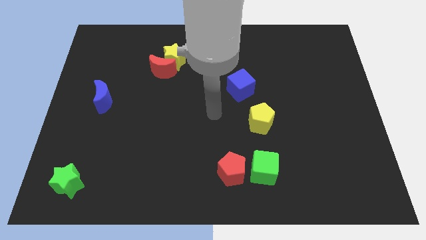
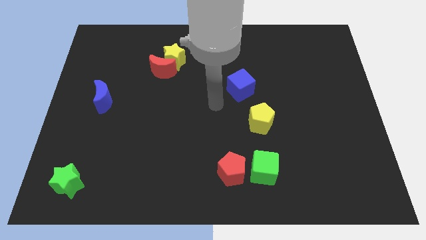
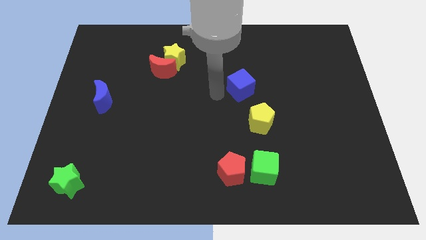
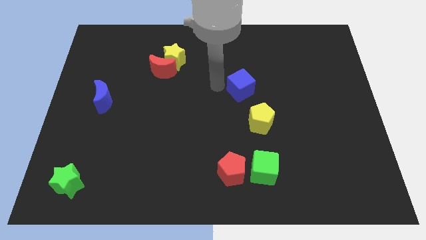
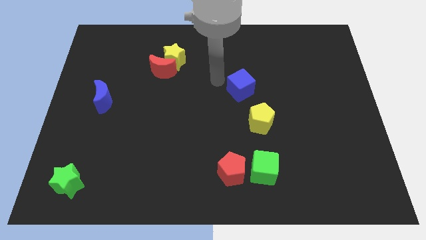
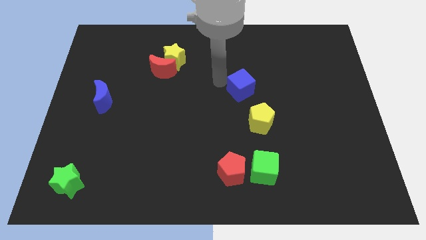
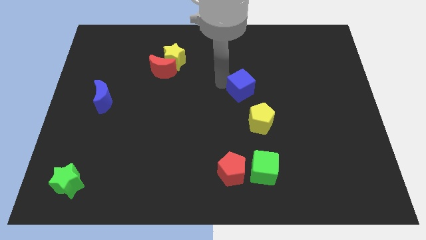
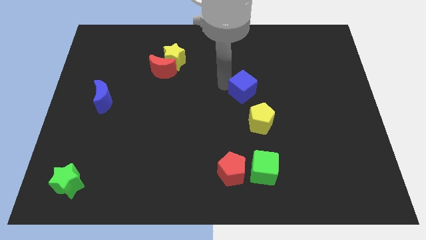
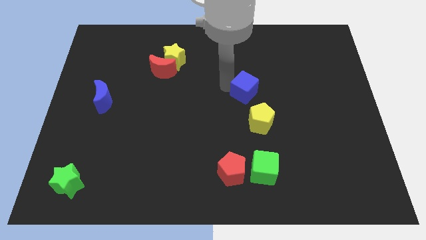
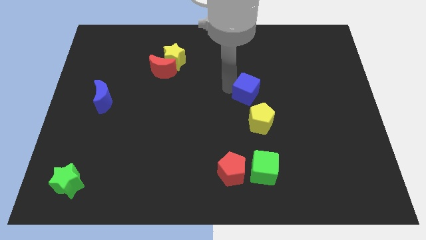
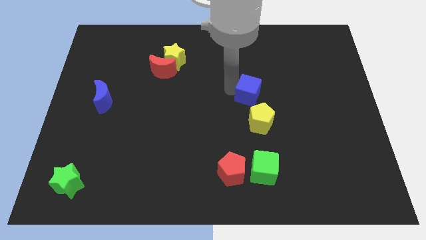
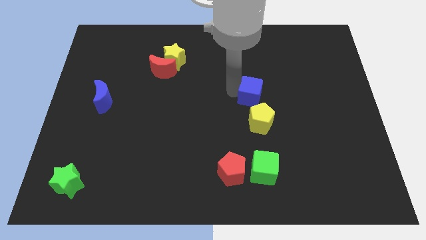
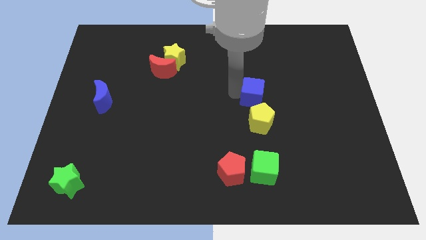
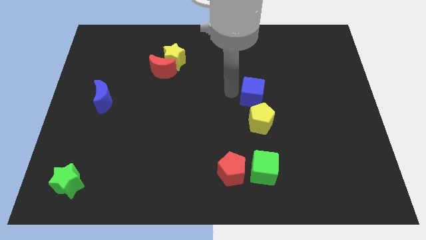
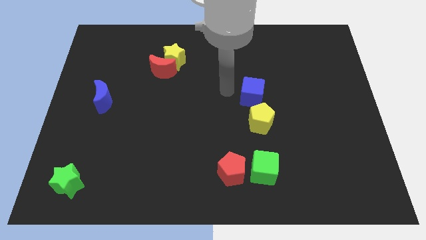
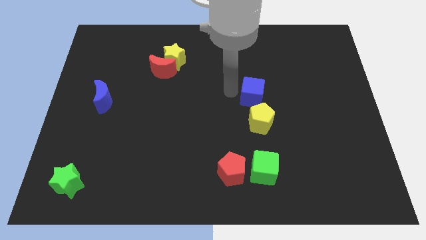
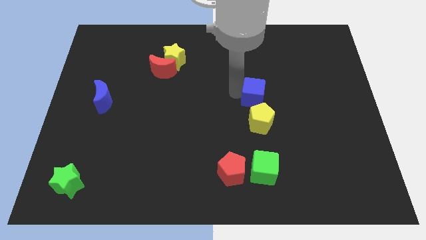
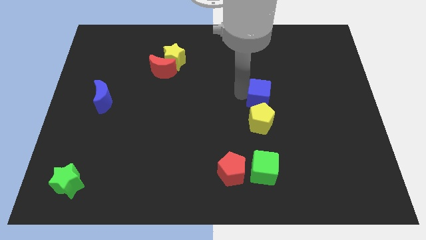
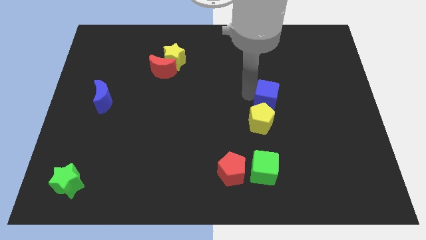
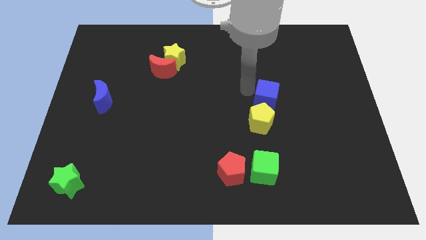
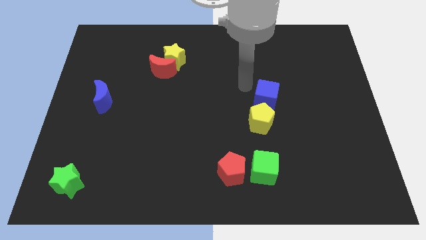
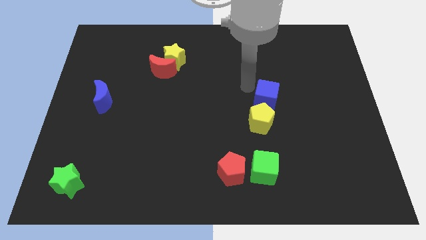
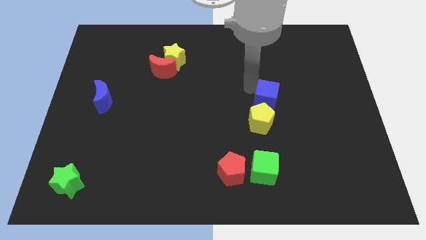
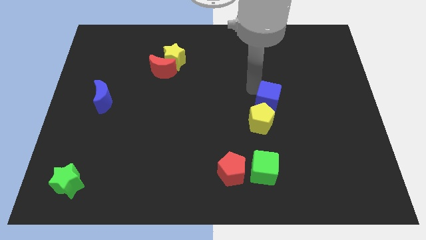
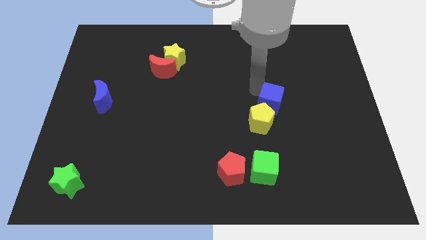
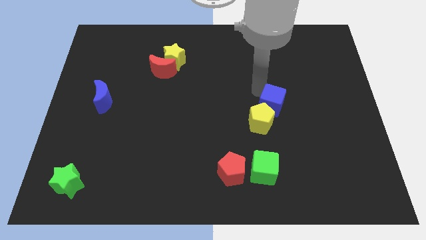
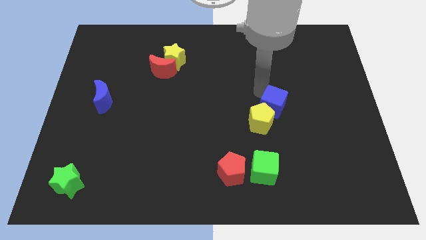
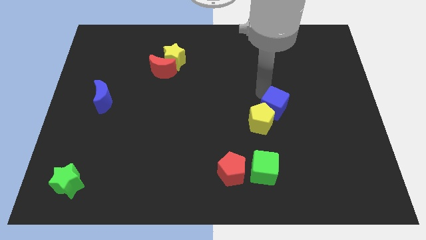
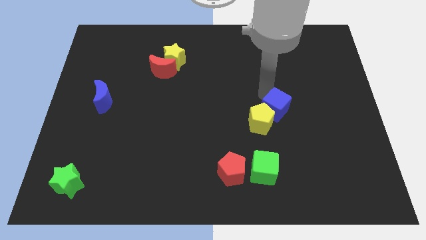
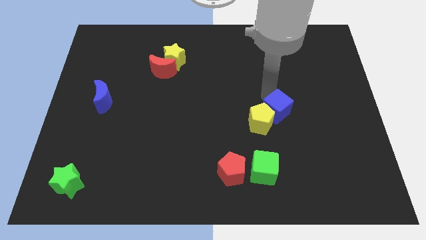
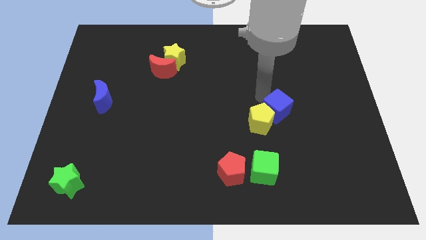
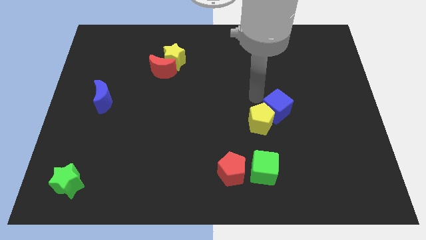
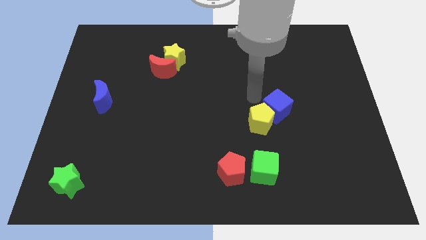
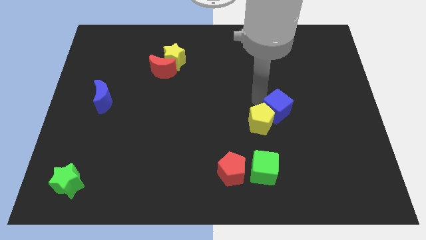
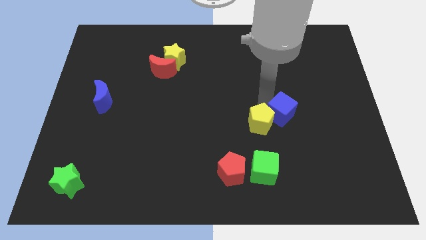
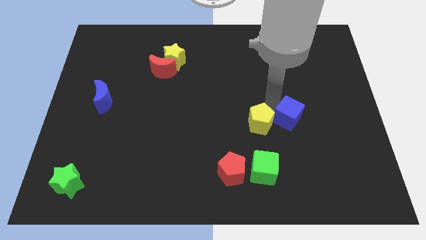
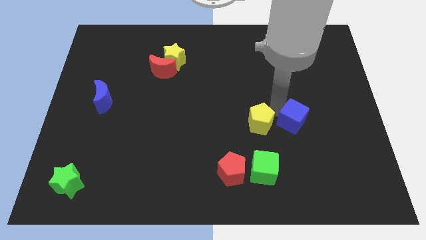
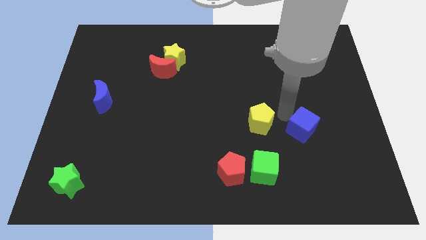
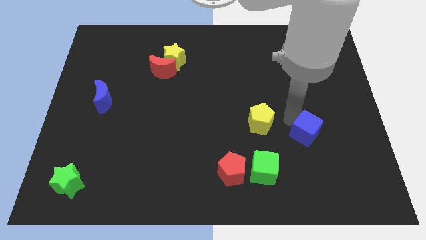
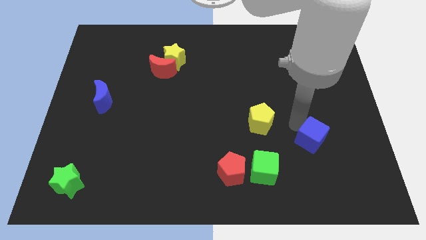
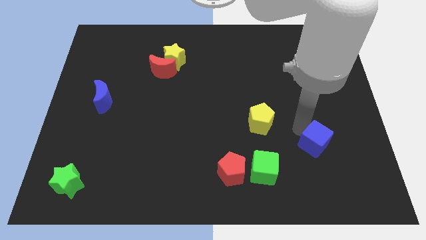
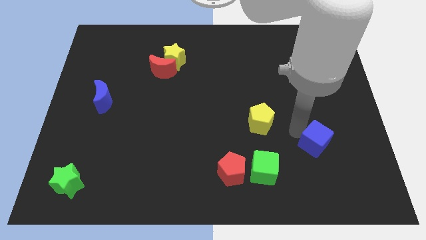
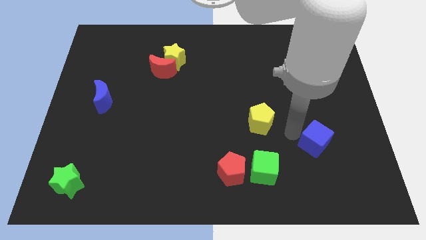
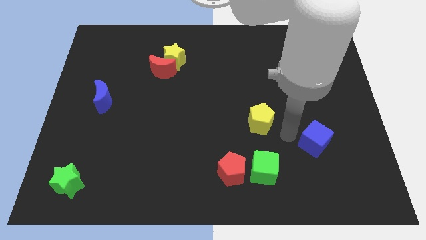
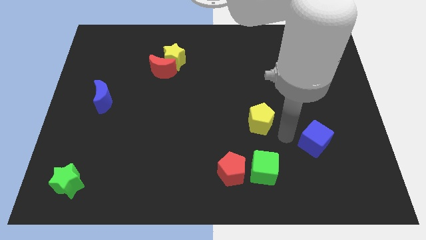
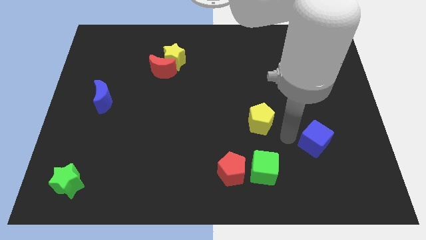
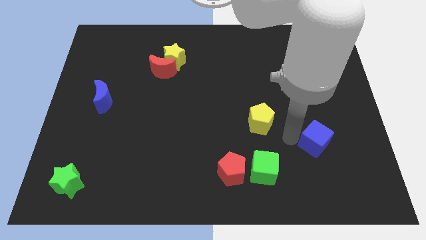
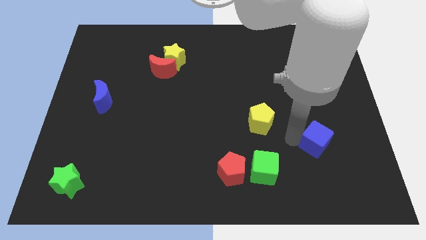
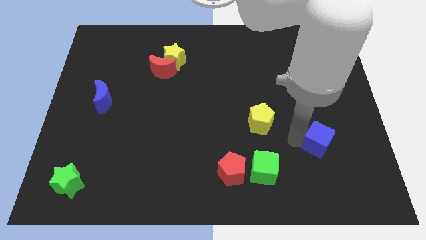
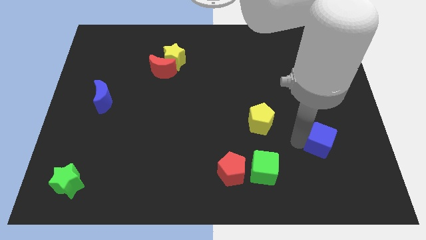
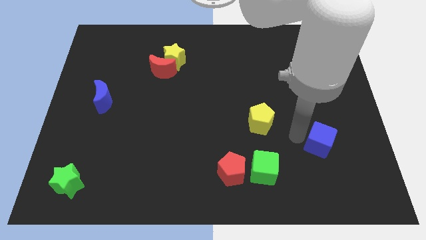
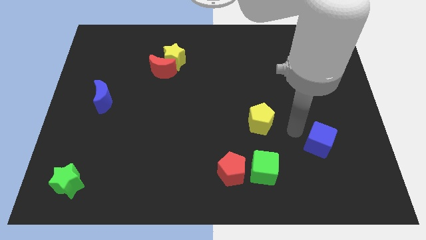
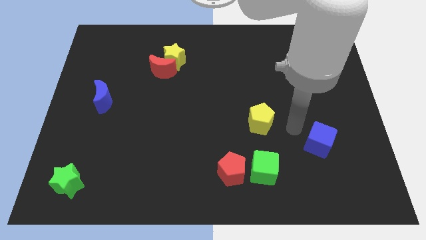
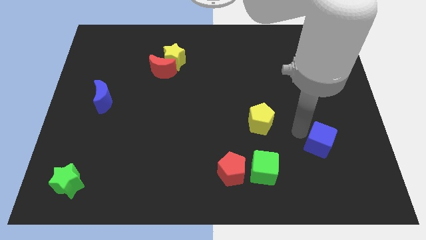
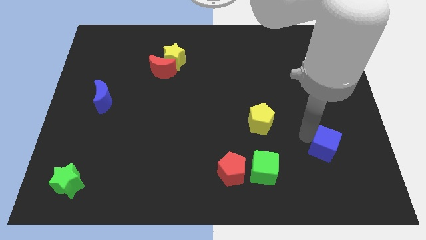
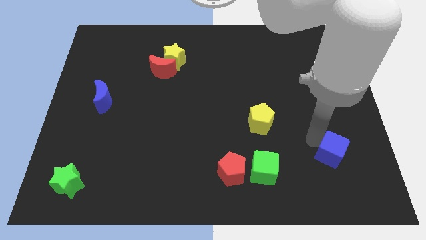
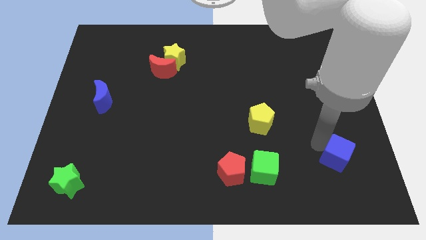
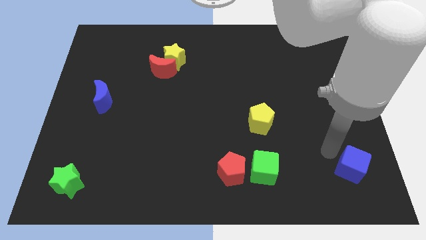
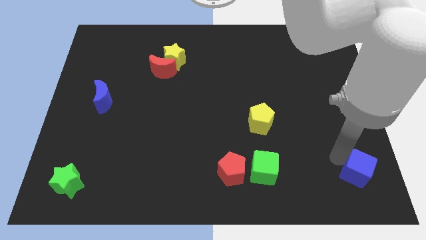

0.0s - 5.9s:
move the blue cube to the bottom right

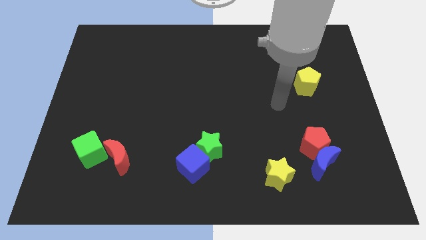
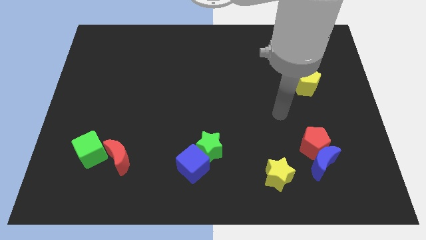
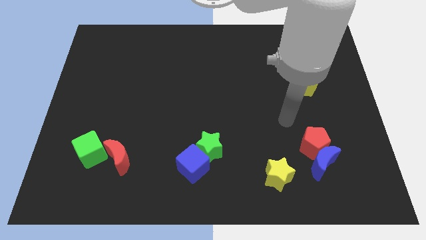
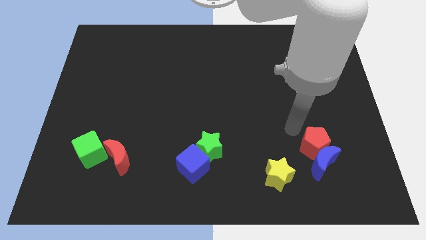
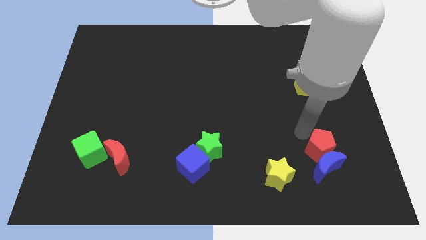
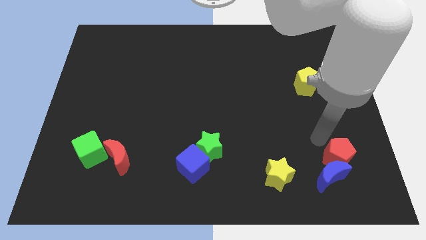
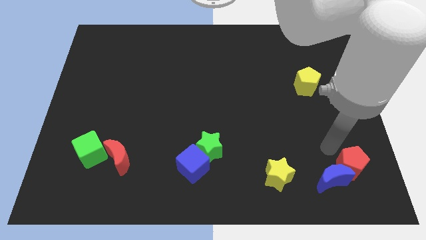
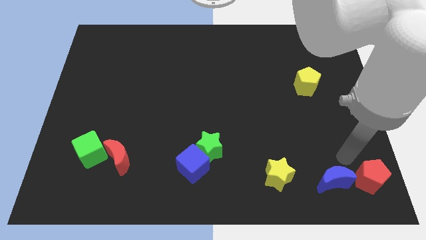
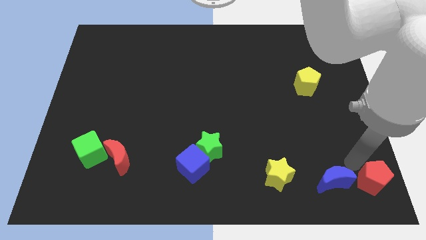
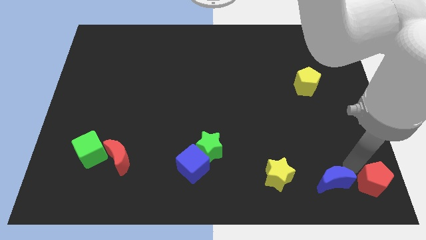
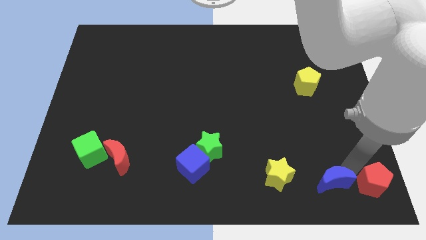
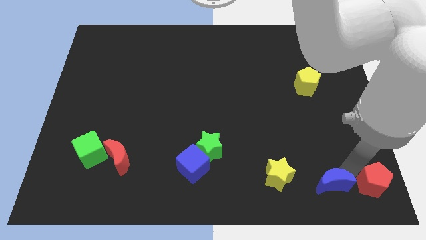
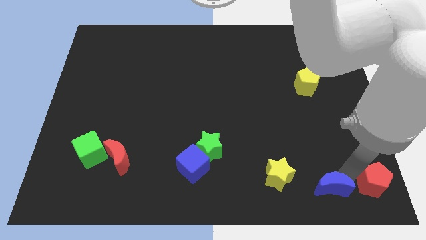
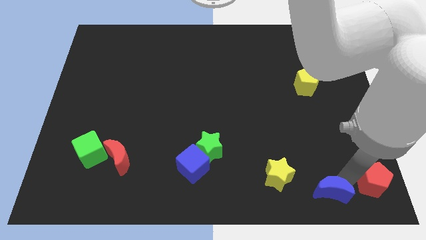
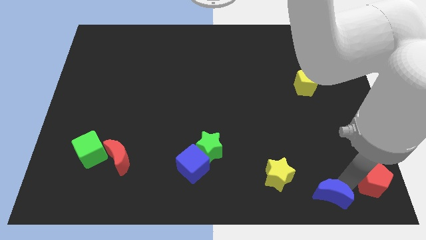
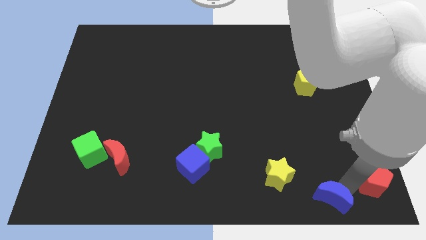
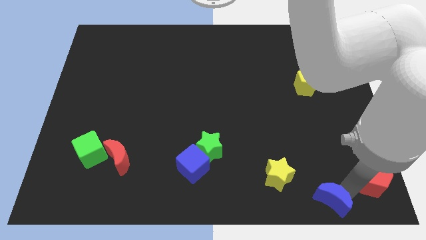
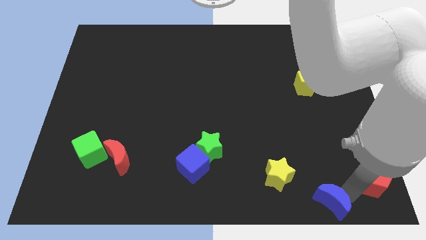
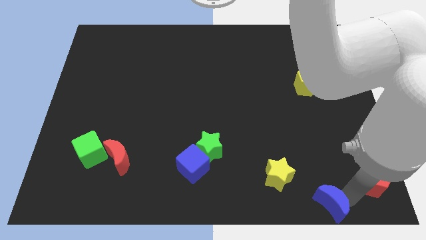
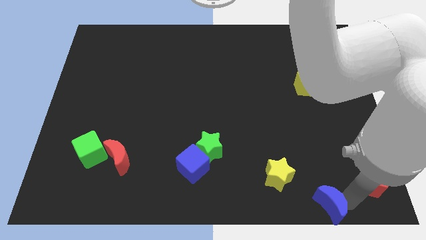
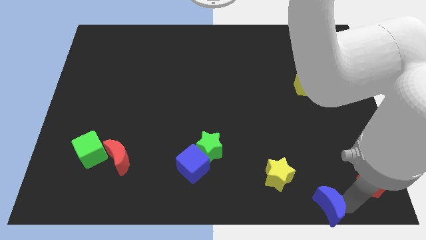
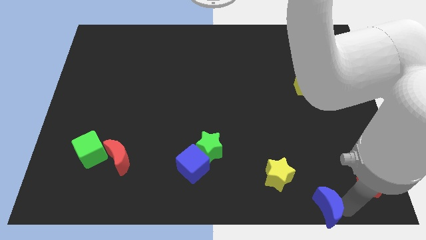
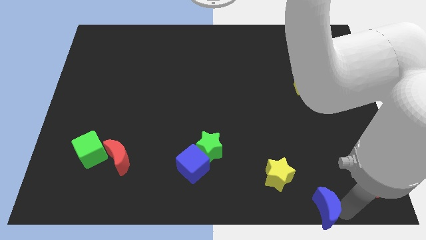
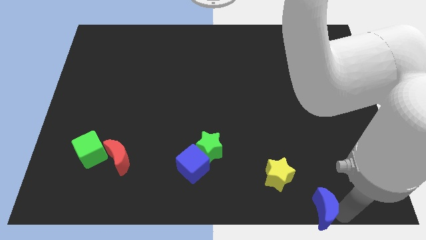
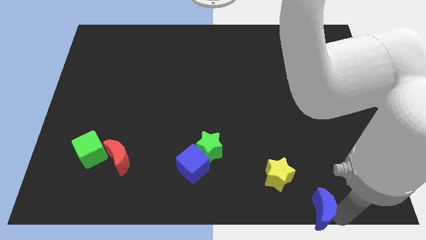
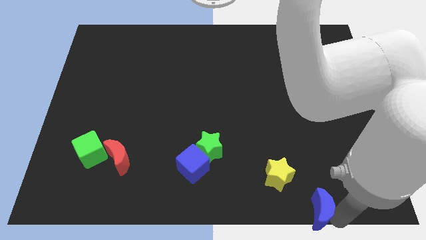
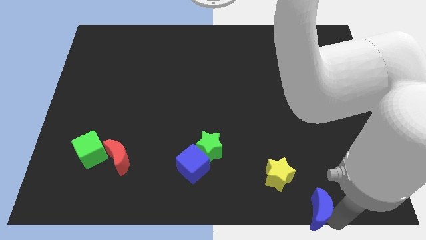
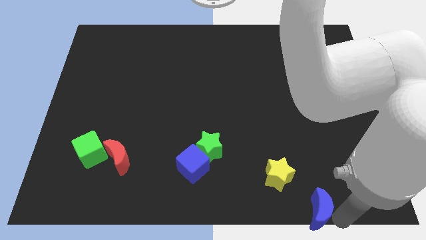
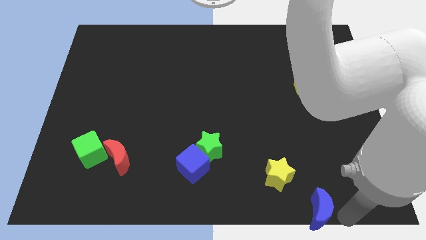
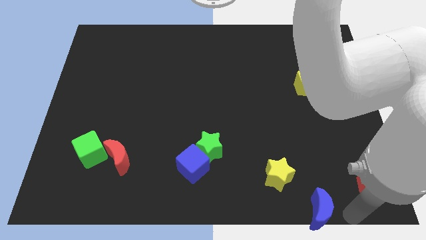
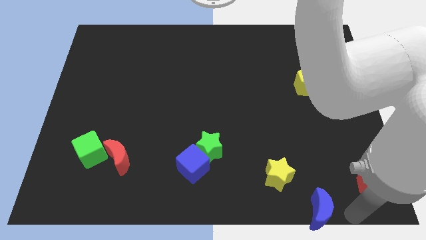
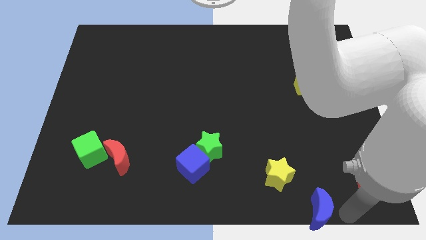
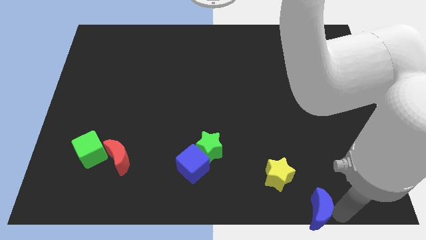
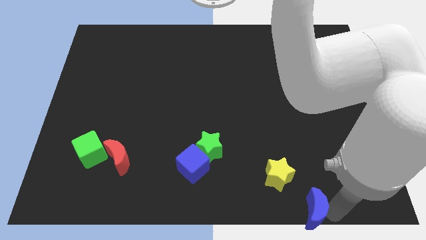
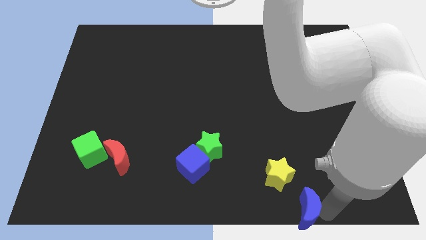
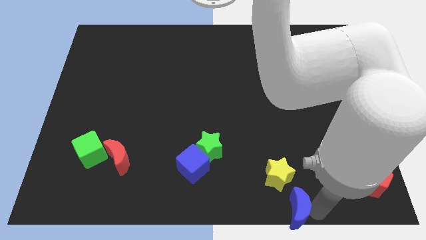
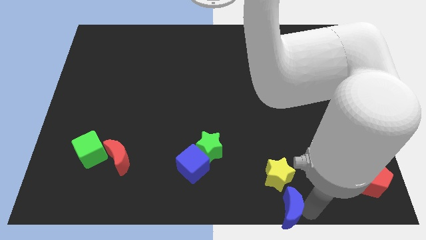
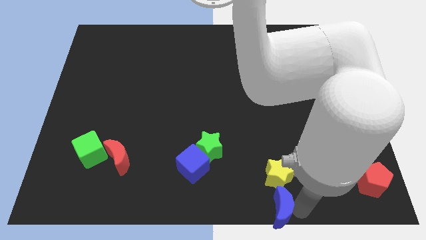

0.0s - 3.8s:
move the blue moon to the bottom
